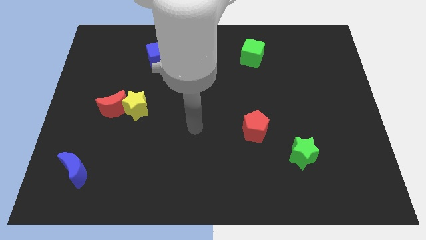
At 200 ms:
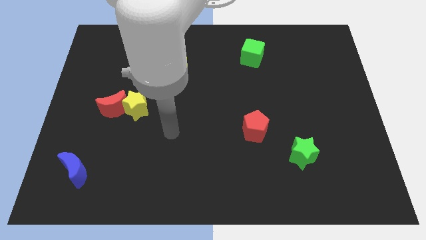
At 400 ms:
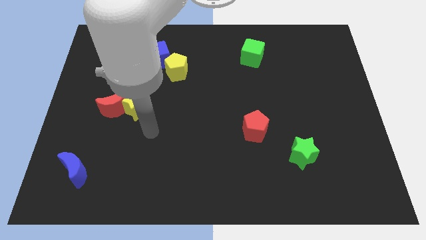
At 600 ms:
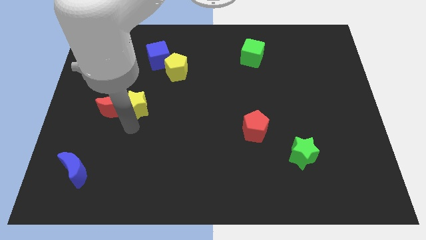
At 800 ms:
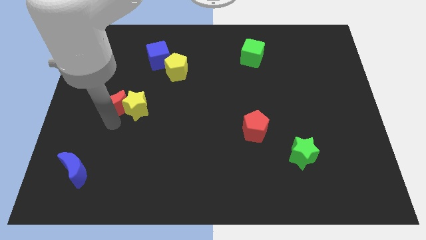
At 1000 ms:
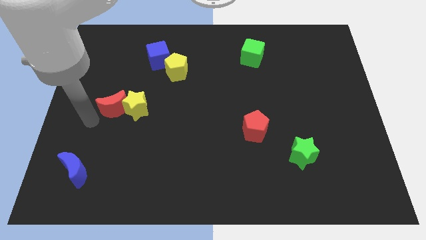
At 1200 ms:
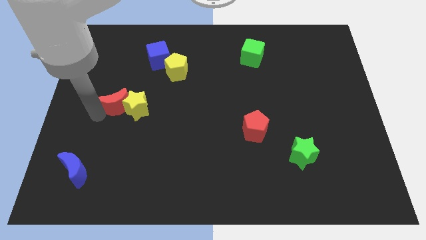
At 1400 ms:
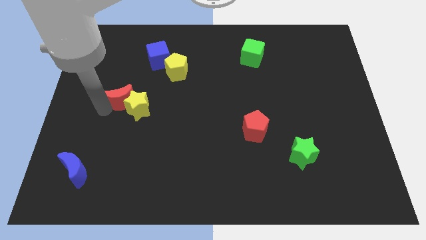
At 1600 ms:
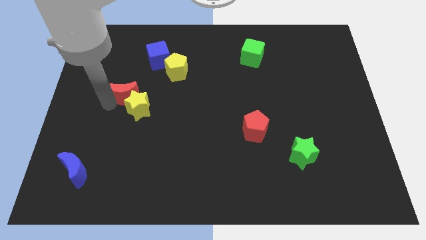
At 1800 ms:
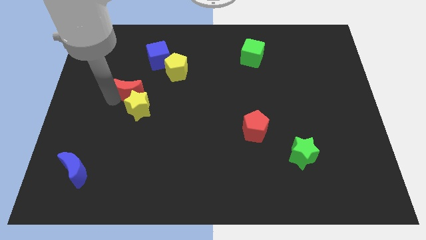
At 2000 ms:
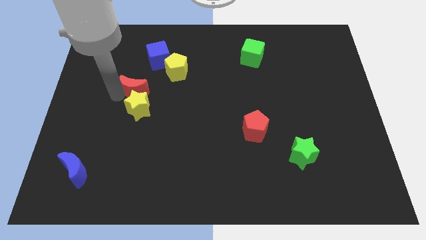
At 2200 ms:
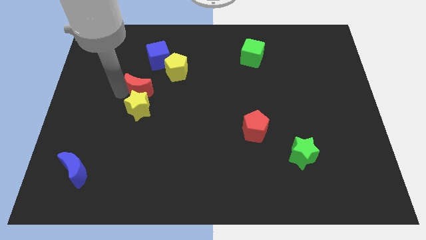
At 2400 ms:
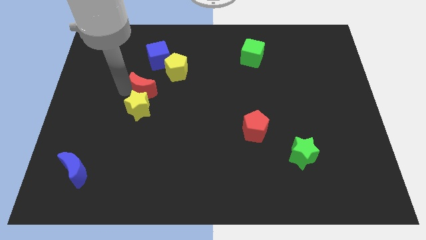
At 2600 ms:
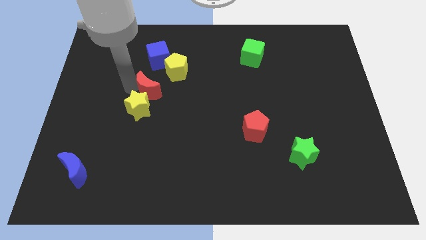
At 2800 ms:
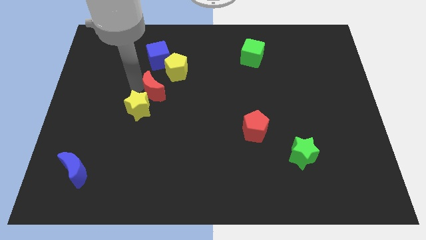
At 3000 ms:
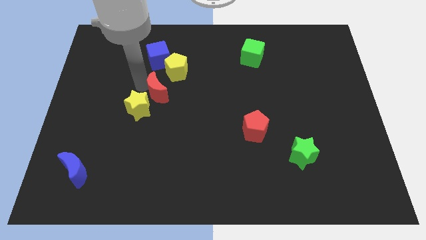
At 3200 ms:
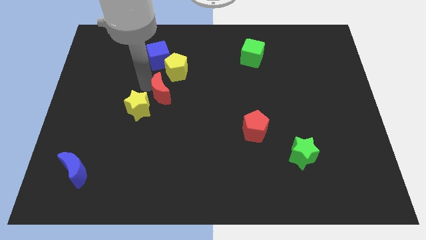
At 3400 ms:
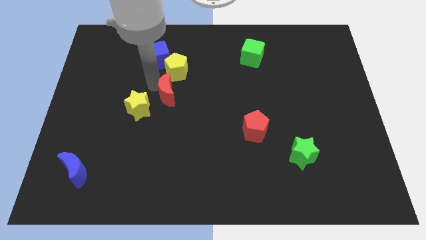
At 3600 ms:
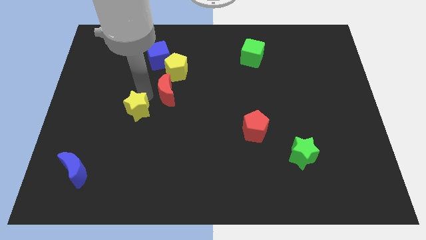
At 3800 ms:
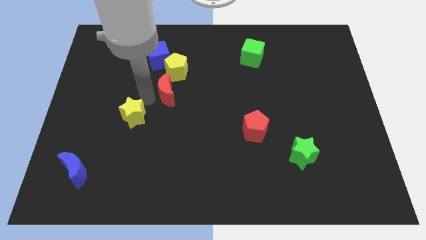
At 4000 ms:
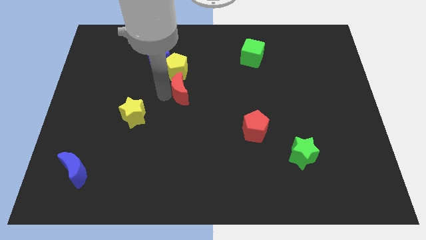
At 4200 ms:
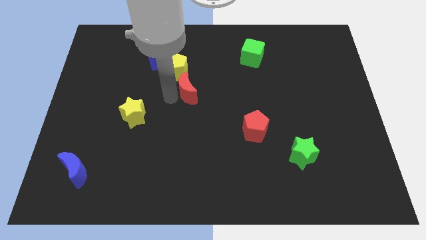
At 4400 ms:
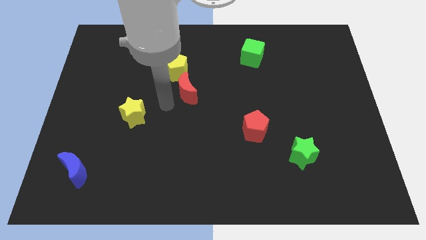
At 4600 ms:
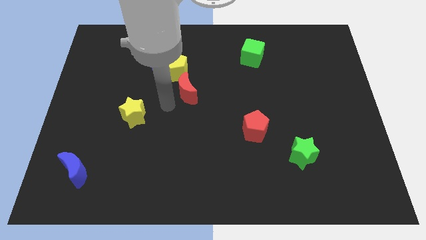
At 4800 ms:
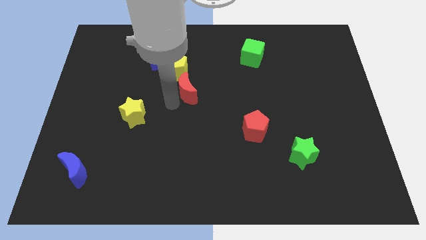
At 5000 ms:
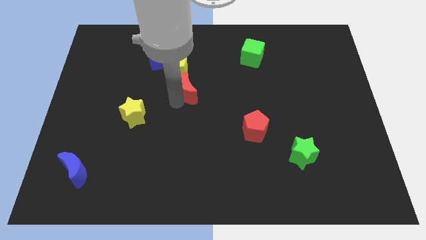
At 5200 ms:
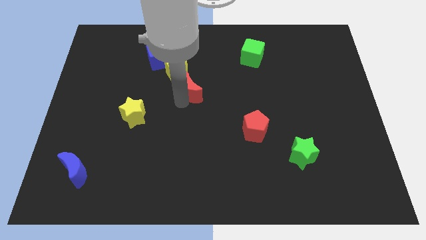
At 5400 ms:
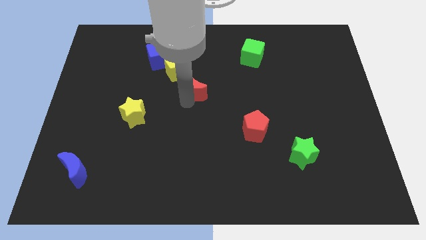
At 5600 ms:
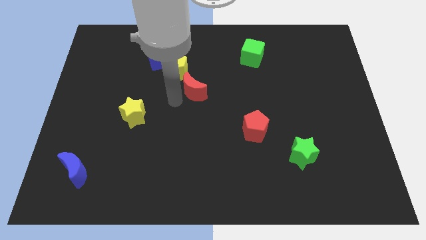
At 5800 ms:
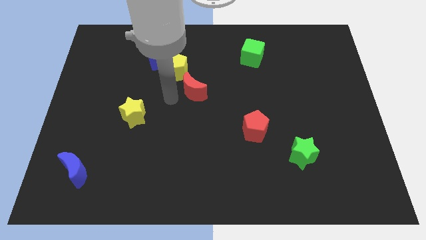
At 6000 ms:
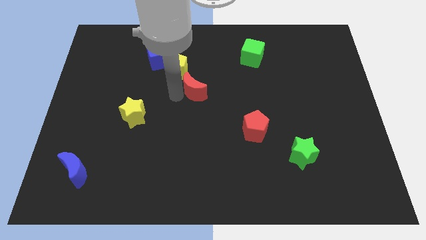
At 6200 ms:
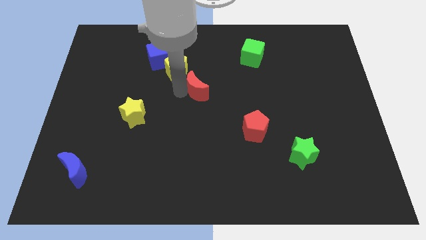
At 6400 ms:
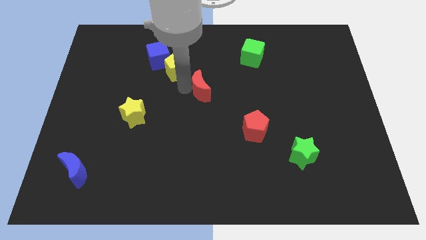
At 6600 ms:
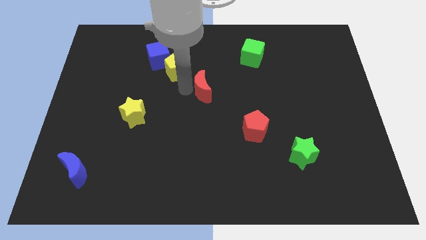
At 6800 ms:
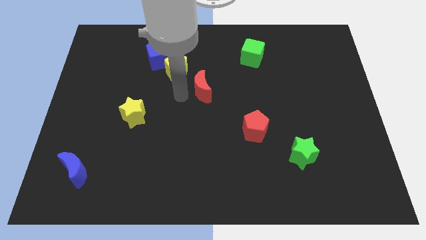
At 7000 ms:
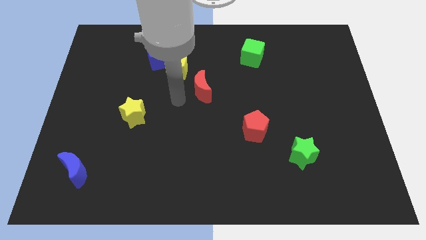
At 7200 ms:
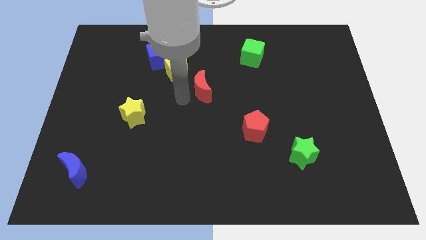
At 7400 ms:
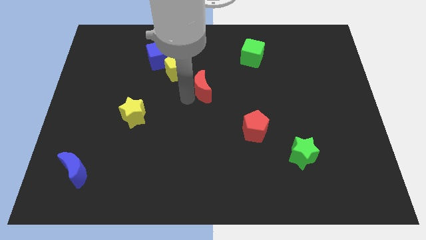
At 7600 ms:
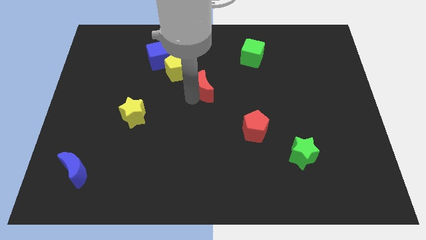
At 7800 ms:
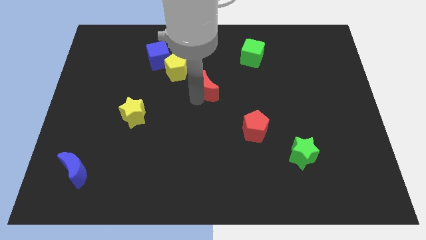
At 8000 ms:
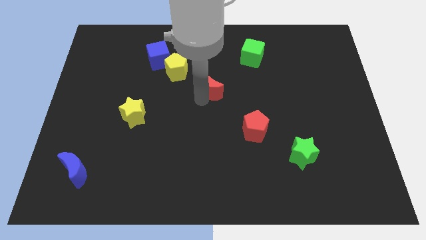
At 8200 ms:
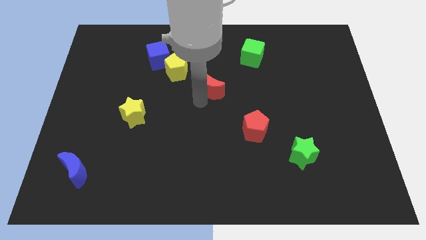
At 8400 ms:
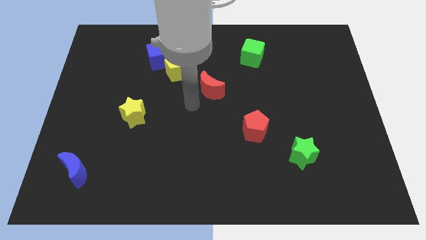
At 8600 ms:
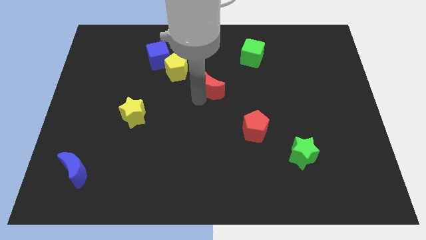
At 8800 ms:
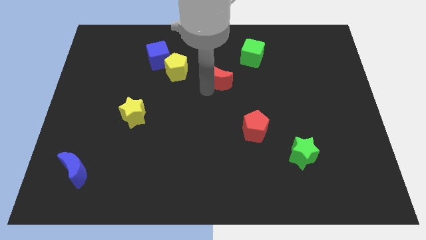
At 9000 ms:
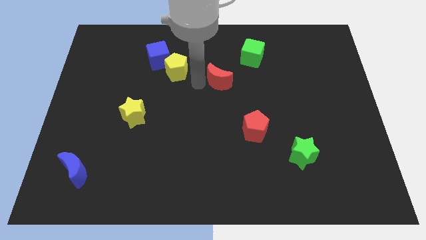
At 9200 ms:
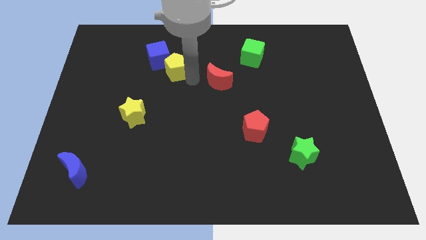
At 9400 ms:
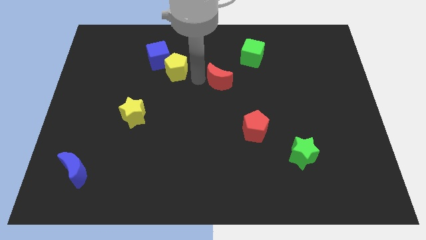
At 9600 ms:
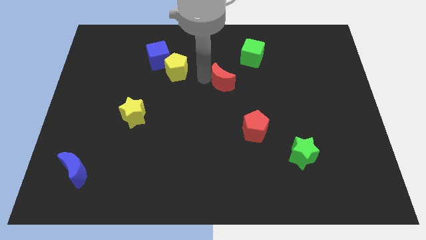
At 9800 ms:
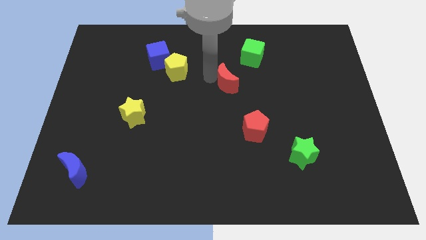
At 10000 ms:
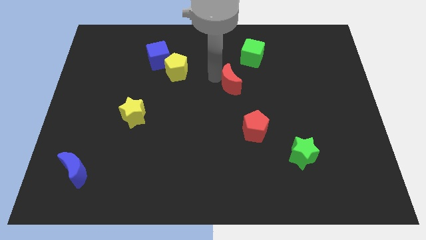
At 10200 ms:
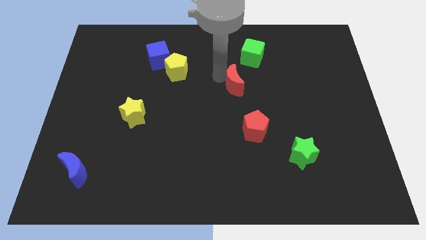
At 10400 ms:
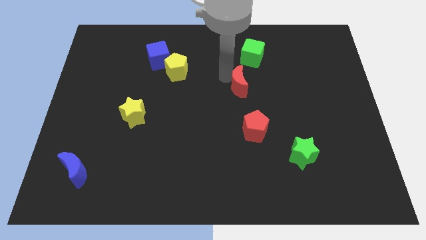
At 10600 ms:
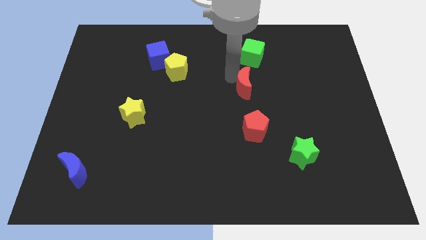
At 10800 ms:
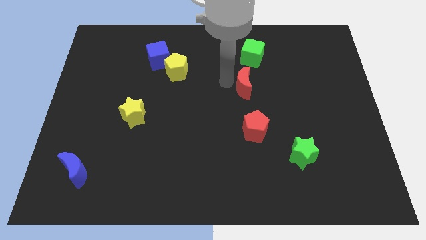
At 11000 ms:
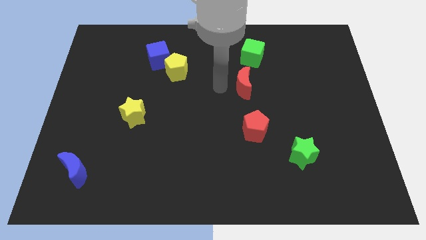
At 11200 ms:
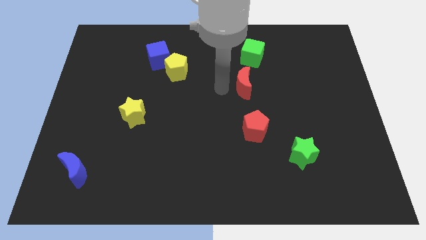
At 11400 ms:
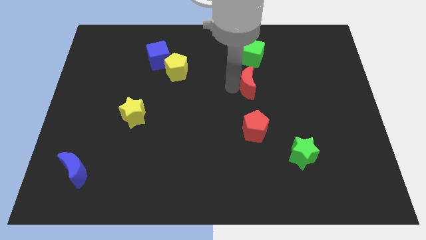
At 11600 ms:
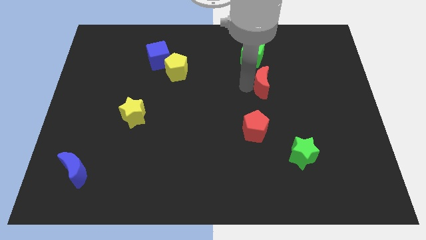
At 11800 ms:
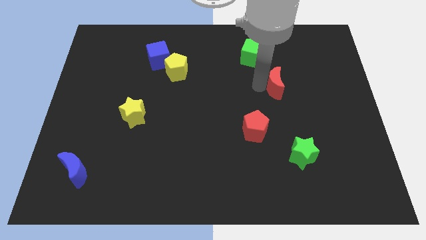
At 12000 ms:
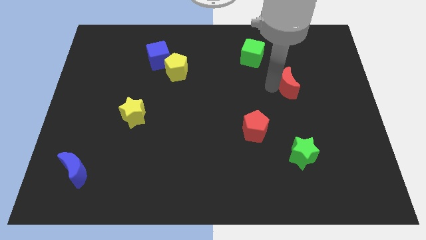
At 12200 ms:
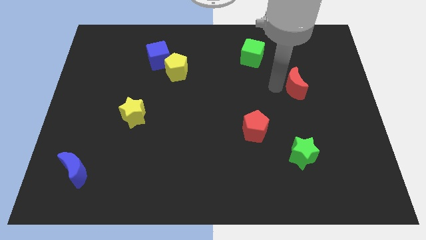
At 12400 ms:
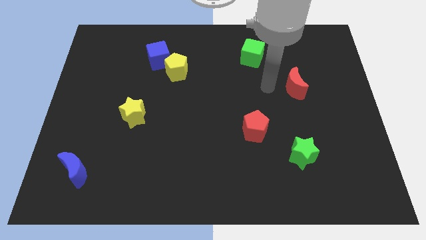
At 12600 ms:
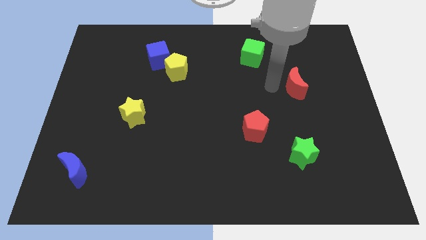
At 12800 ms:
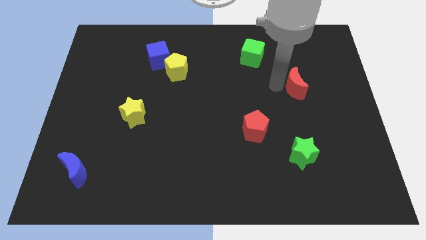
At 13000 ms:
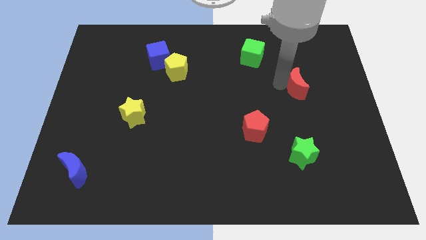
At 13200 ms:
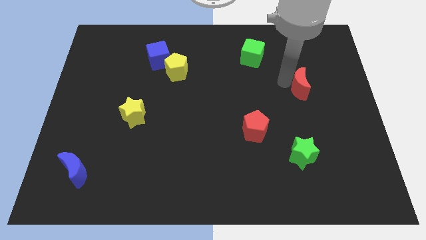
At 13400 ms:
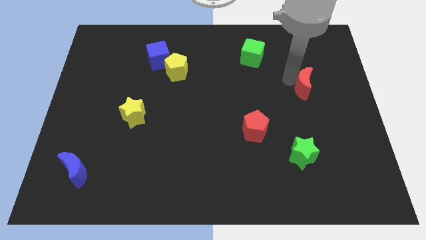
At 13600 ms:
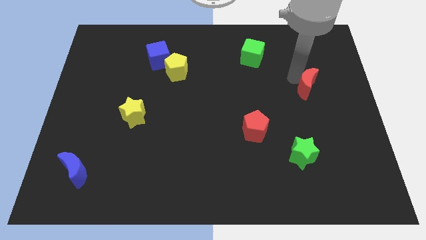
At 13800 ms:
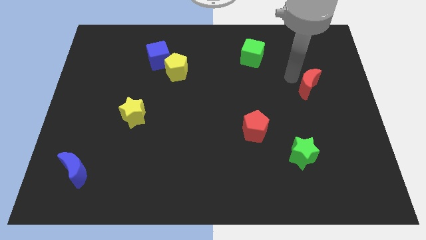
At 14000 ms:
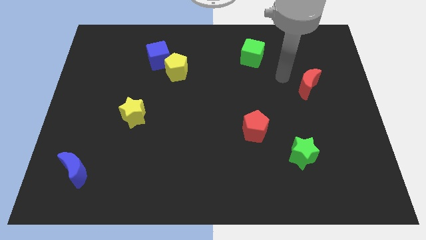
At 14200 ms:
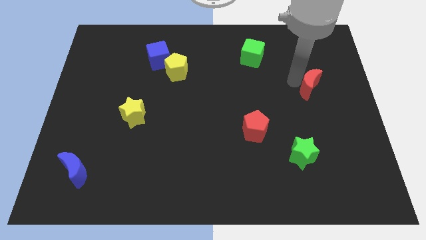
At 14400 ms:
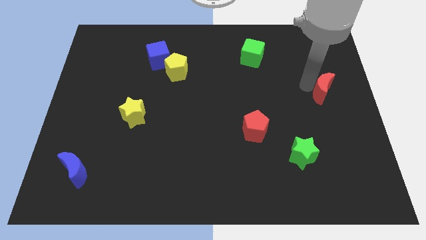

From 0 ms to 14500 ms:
slide the red moon to the right side
